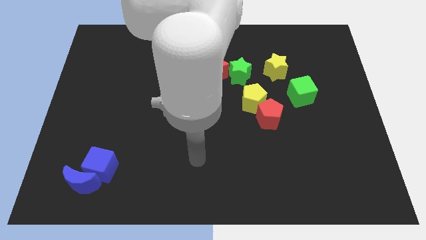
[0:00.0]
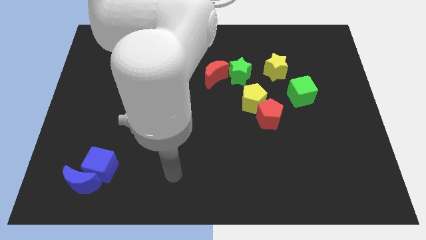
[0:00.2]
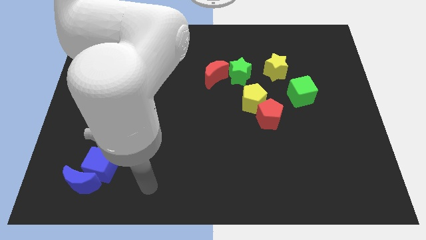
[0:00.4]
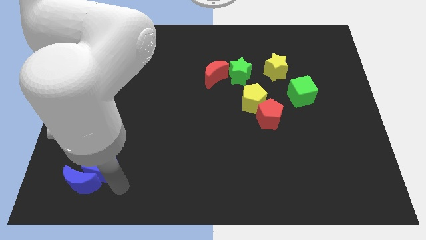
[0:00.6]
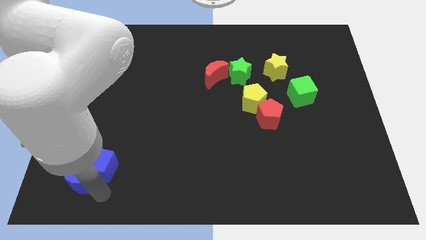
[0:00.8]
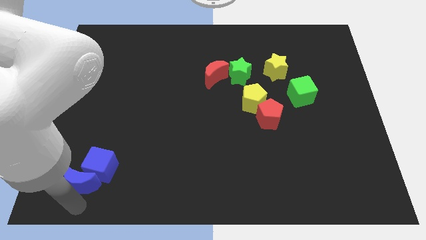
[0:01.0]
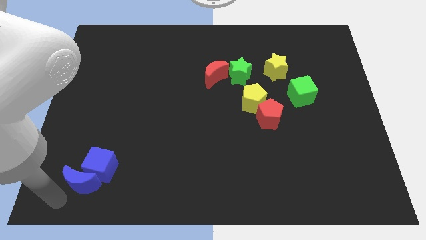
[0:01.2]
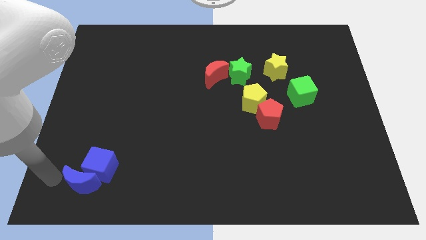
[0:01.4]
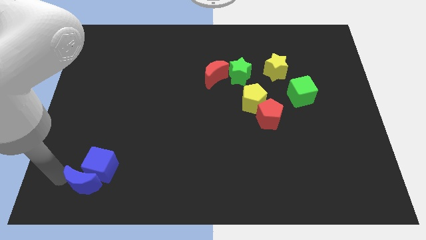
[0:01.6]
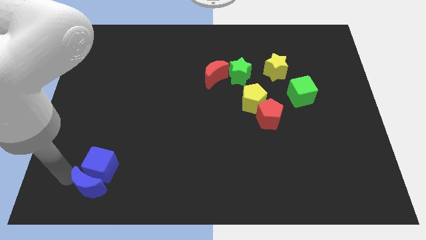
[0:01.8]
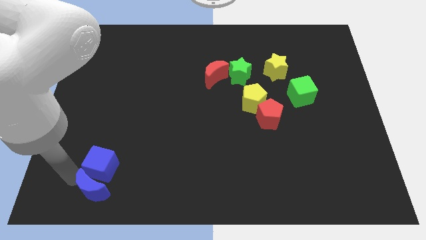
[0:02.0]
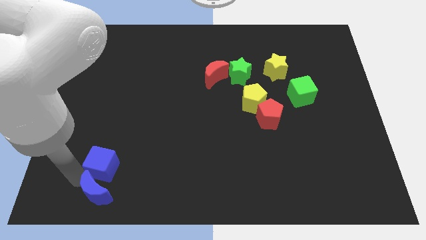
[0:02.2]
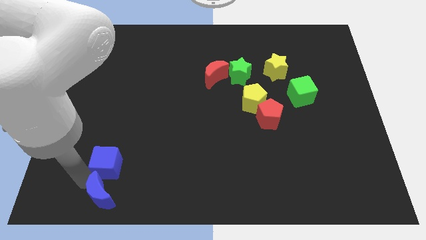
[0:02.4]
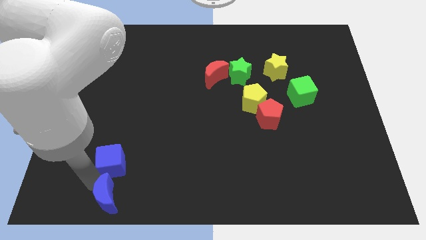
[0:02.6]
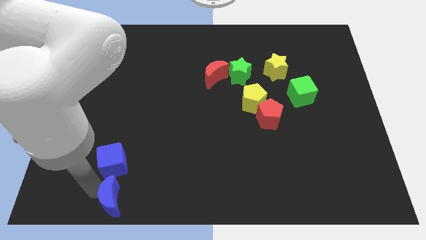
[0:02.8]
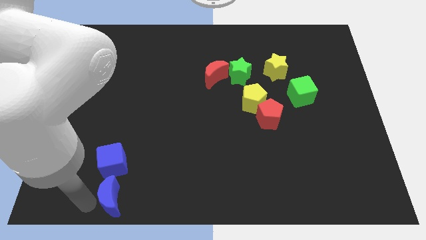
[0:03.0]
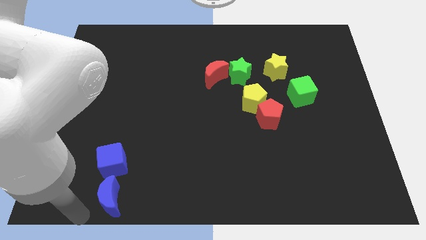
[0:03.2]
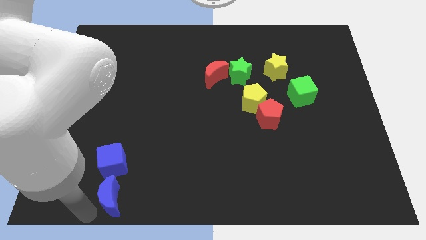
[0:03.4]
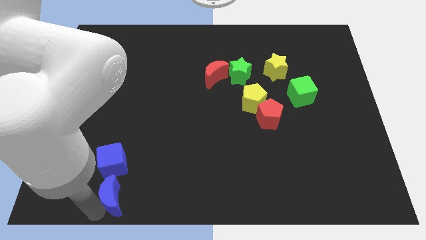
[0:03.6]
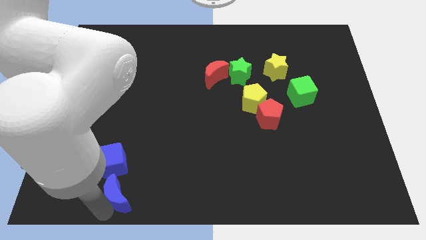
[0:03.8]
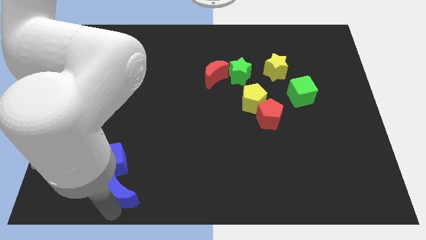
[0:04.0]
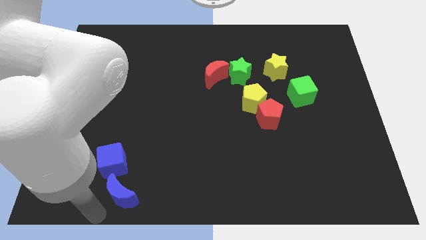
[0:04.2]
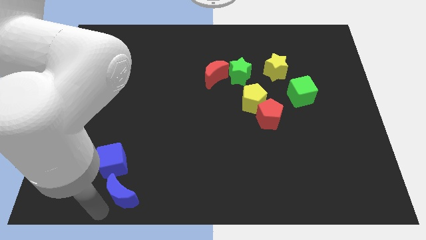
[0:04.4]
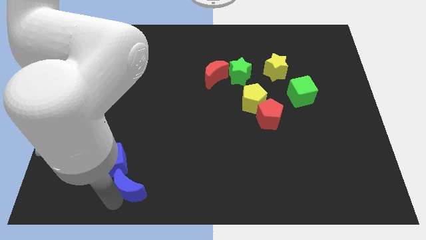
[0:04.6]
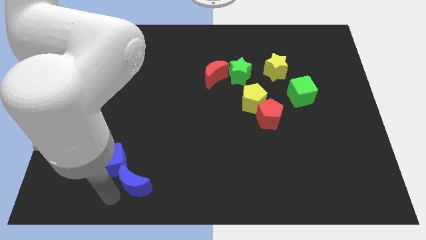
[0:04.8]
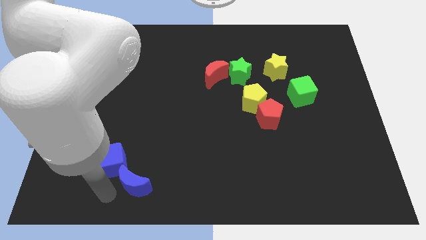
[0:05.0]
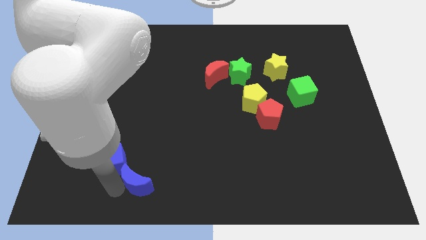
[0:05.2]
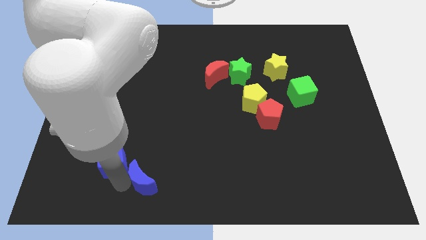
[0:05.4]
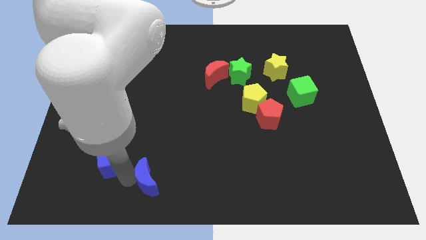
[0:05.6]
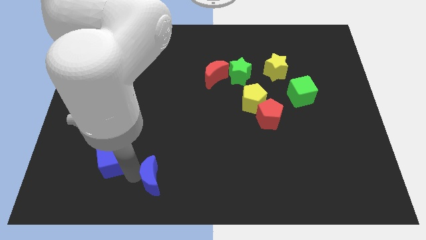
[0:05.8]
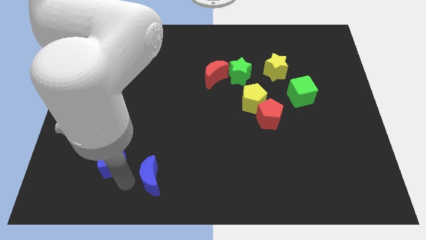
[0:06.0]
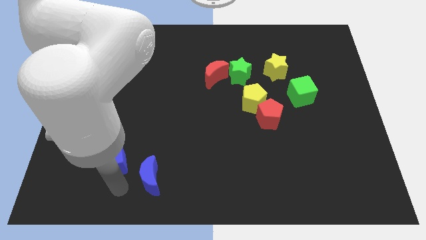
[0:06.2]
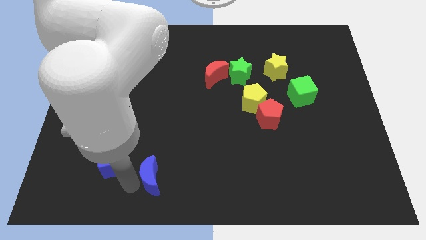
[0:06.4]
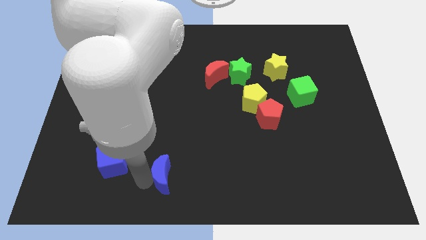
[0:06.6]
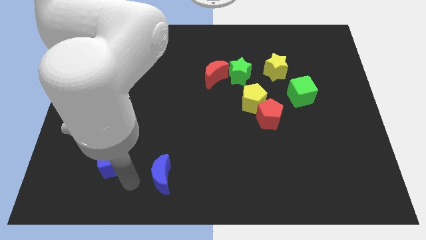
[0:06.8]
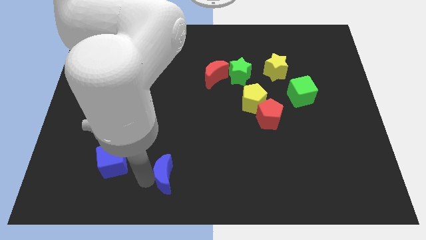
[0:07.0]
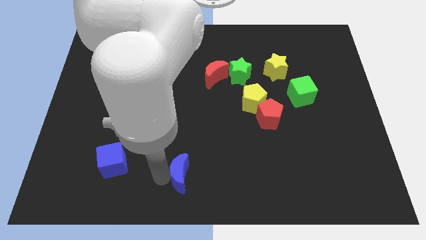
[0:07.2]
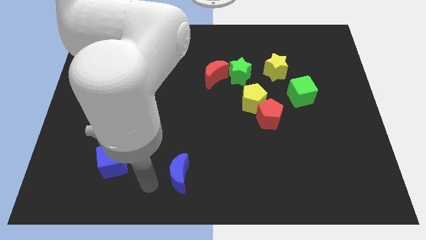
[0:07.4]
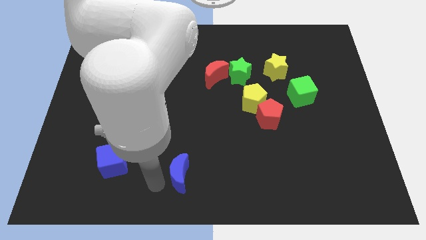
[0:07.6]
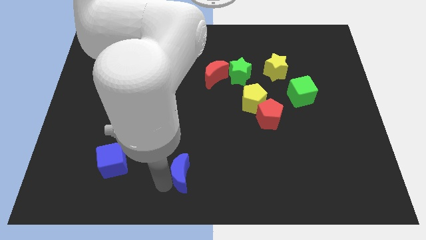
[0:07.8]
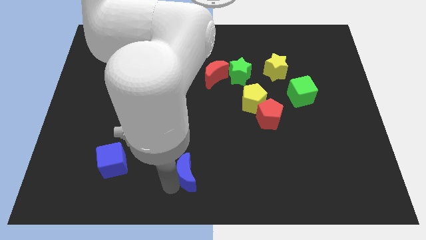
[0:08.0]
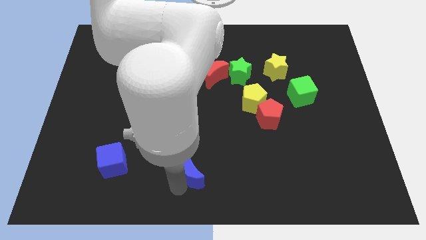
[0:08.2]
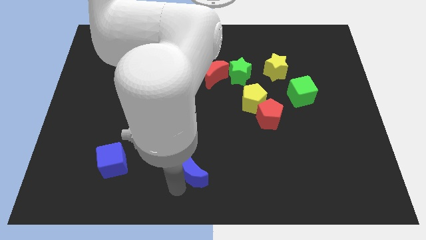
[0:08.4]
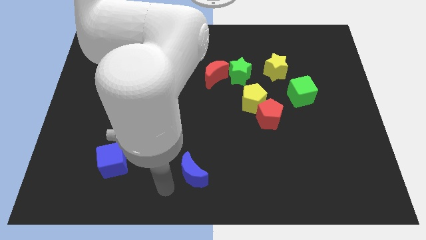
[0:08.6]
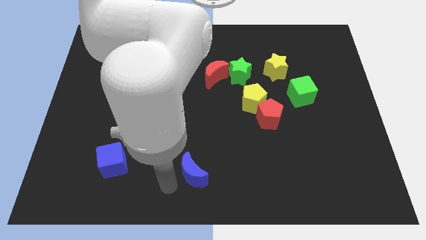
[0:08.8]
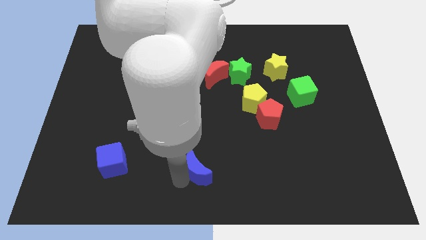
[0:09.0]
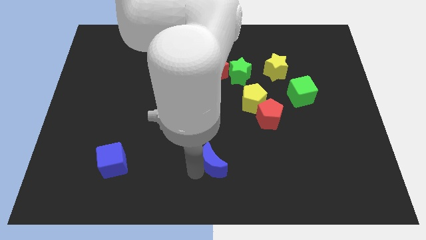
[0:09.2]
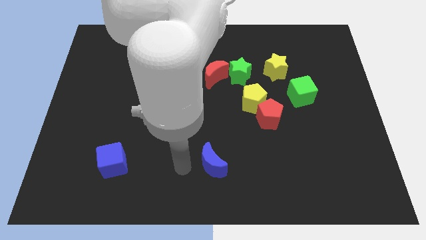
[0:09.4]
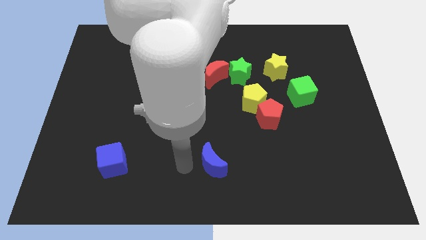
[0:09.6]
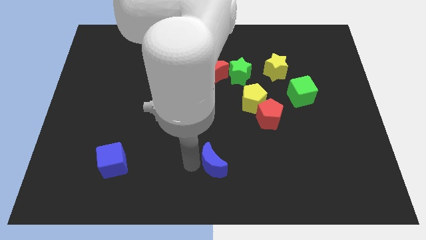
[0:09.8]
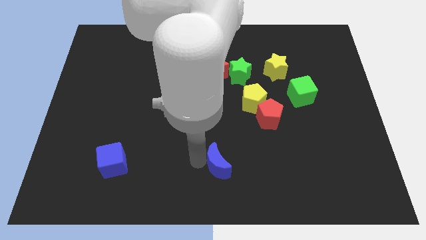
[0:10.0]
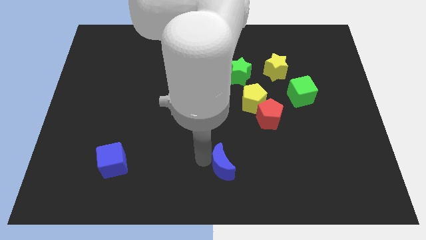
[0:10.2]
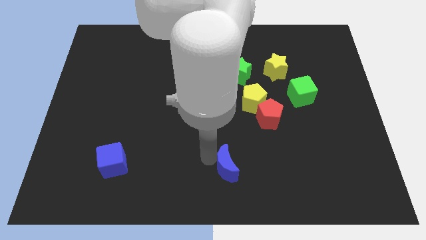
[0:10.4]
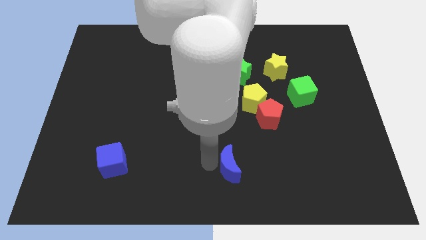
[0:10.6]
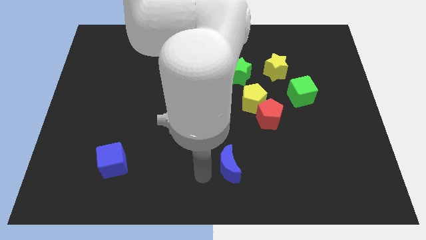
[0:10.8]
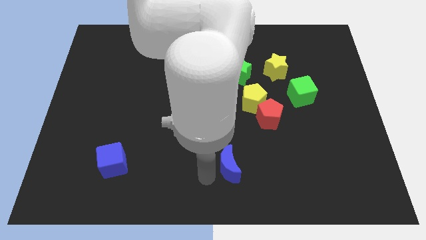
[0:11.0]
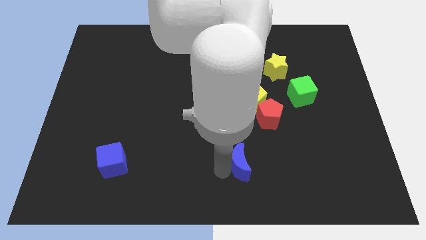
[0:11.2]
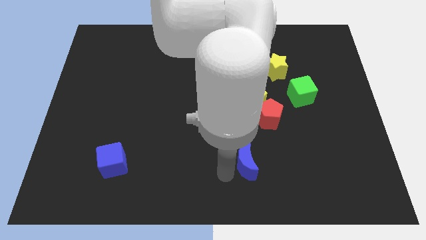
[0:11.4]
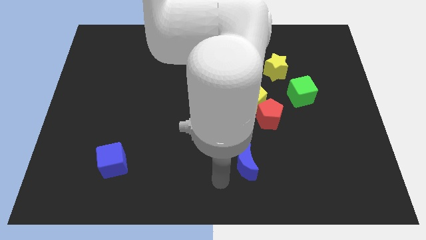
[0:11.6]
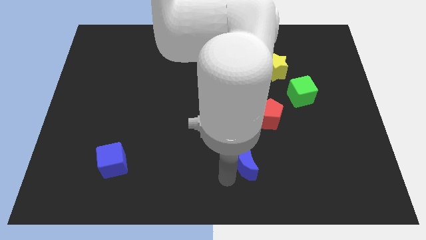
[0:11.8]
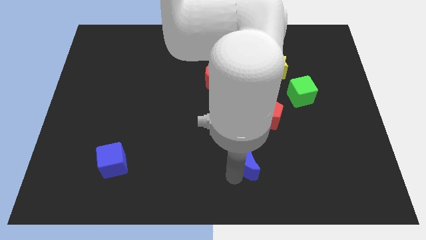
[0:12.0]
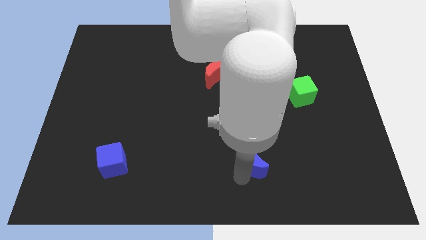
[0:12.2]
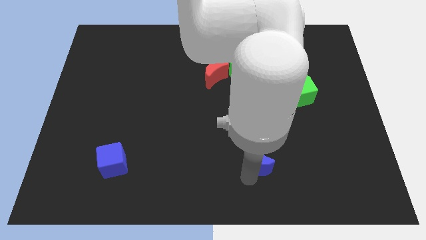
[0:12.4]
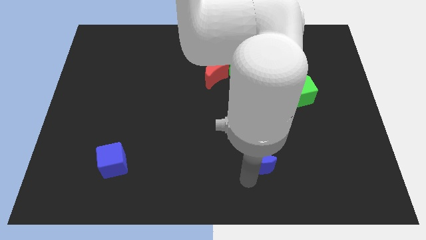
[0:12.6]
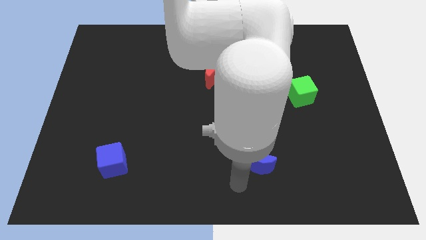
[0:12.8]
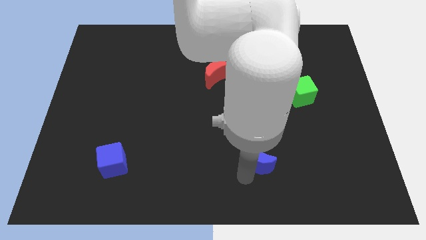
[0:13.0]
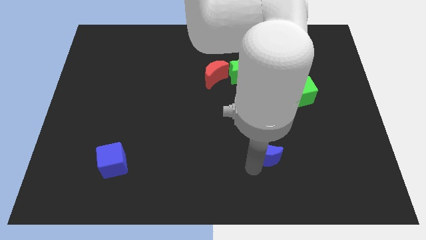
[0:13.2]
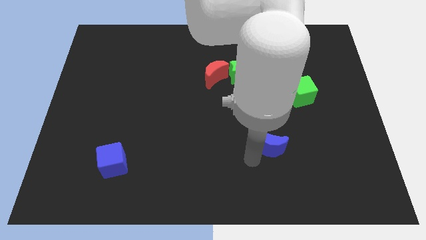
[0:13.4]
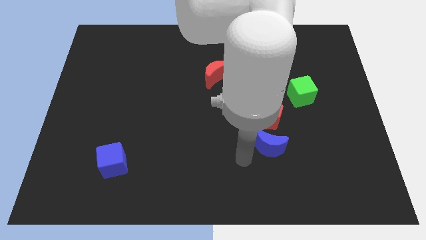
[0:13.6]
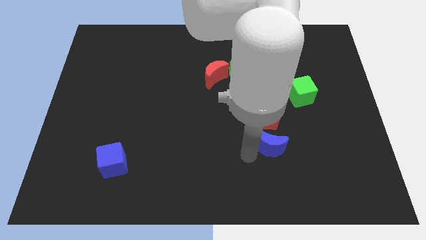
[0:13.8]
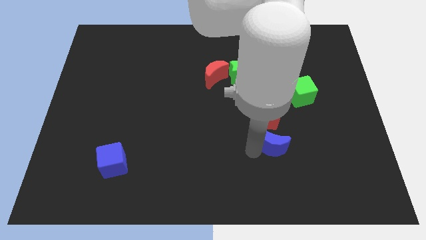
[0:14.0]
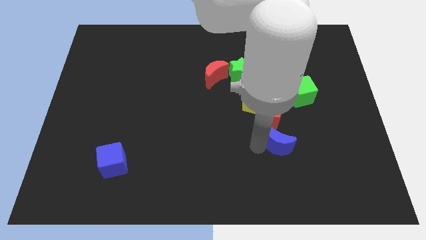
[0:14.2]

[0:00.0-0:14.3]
put the blue moon to the bottom right side of the red pentagon
